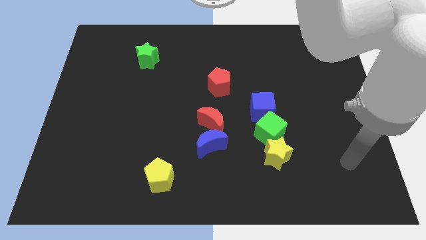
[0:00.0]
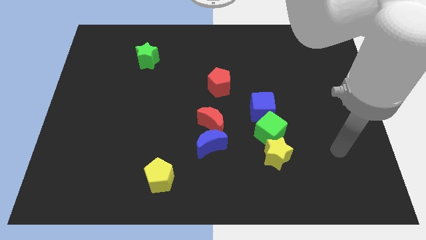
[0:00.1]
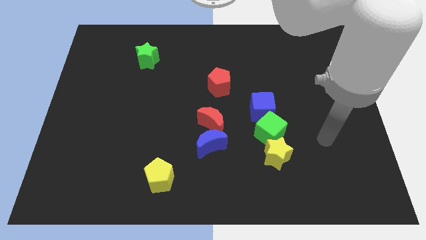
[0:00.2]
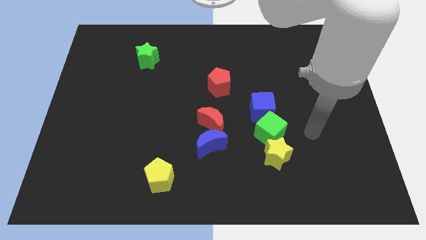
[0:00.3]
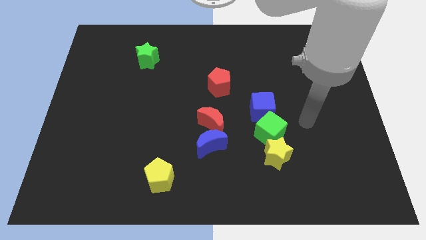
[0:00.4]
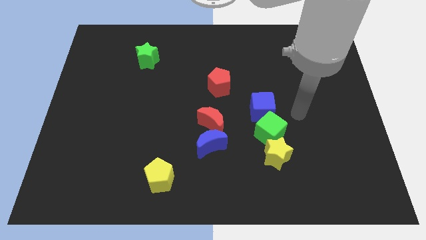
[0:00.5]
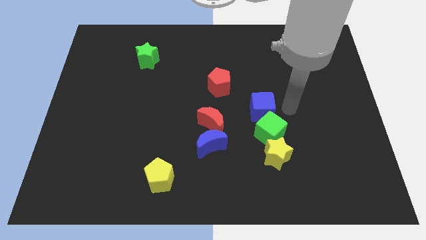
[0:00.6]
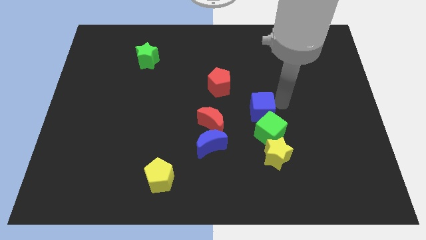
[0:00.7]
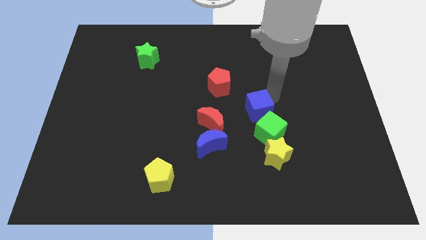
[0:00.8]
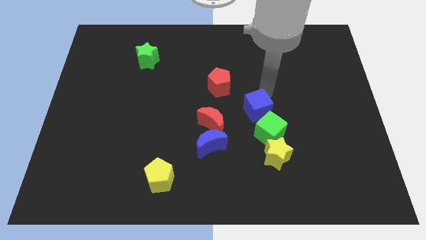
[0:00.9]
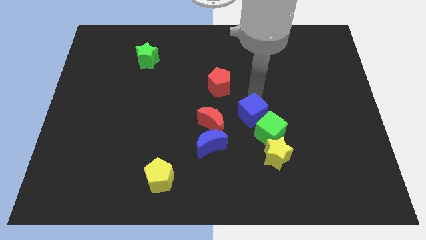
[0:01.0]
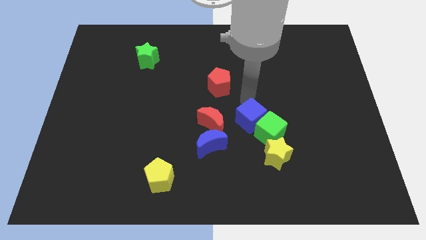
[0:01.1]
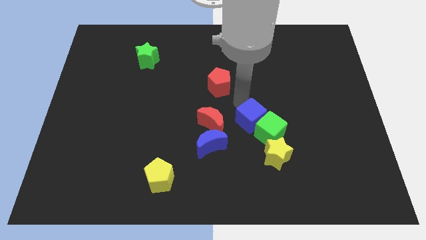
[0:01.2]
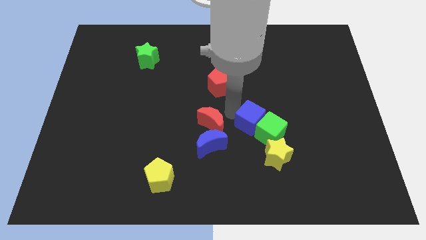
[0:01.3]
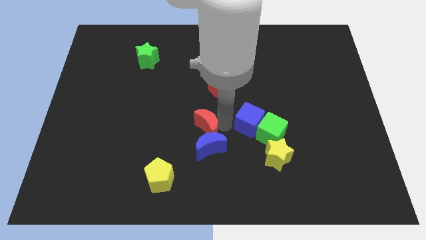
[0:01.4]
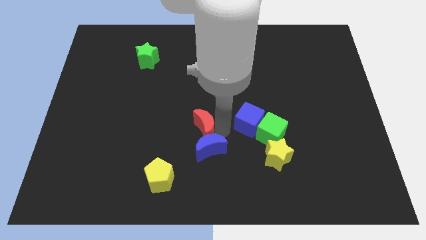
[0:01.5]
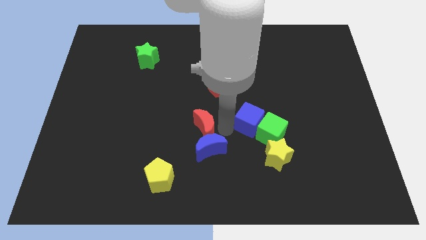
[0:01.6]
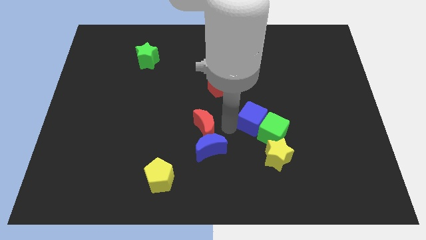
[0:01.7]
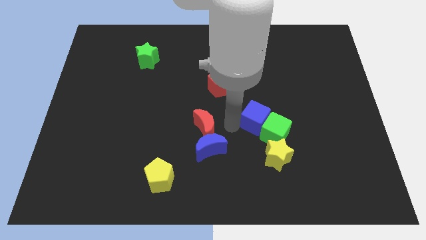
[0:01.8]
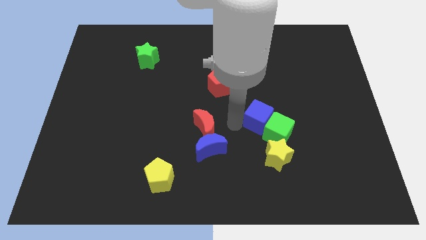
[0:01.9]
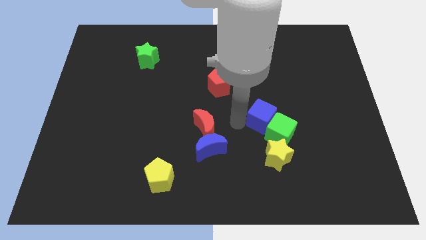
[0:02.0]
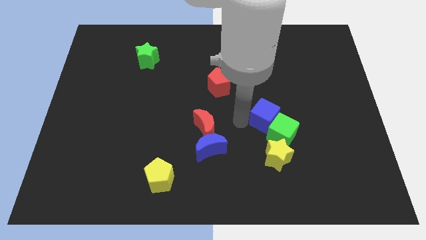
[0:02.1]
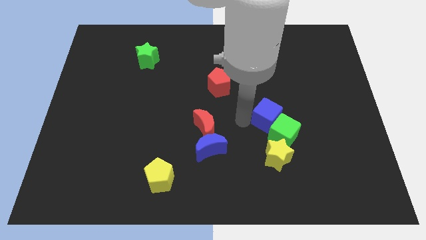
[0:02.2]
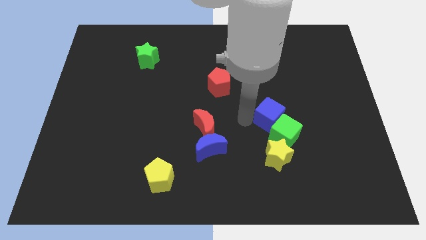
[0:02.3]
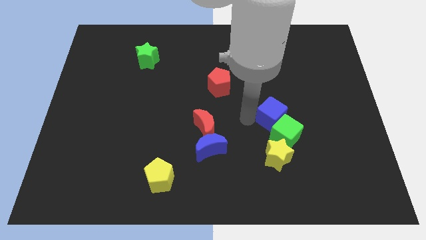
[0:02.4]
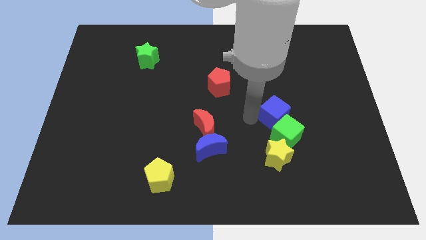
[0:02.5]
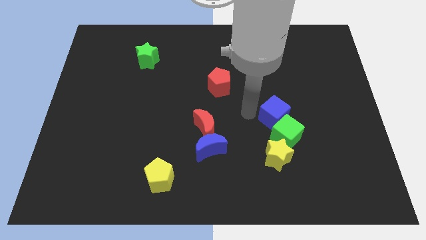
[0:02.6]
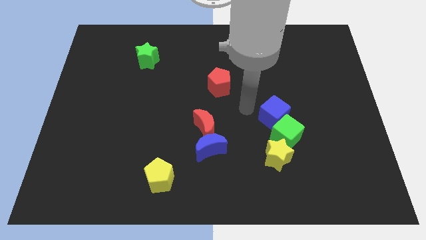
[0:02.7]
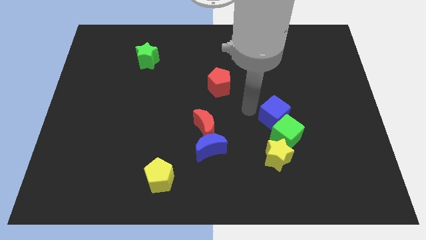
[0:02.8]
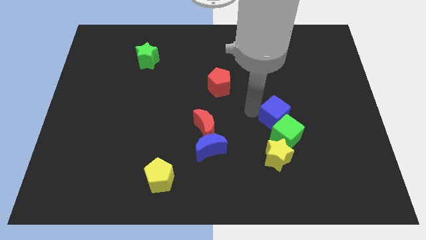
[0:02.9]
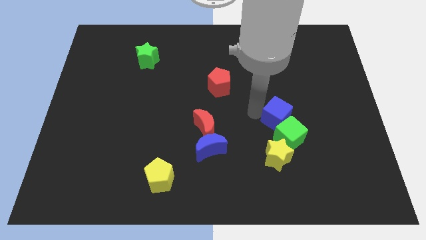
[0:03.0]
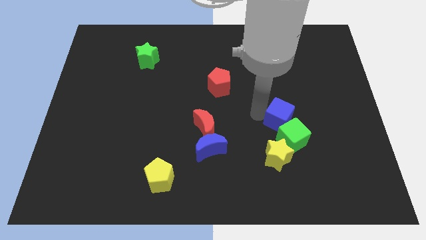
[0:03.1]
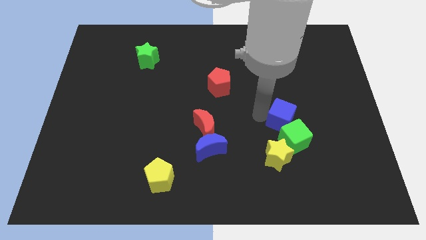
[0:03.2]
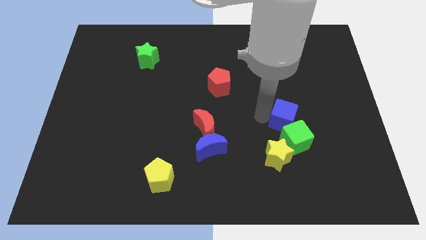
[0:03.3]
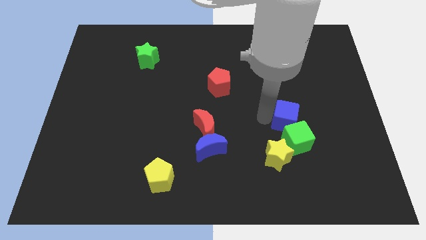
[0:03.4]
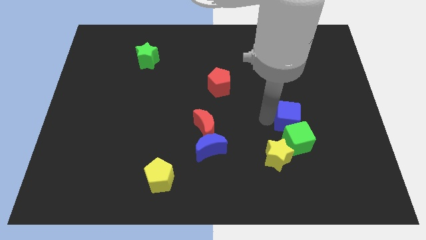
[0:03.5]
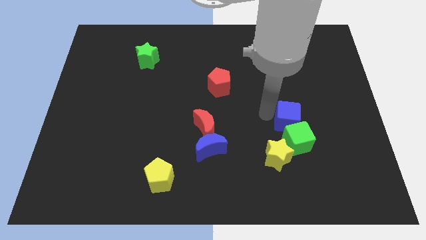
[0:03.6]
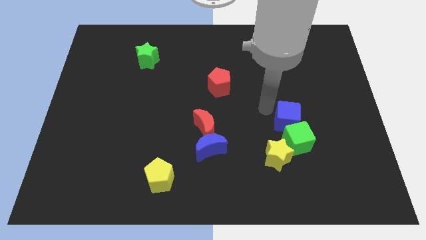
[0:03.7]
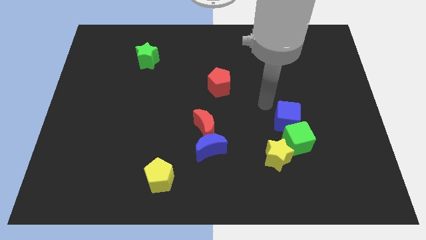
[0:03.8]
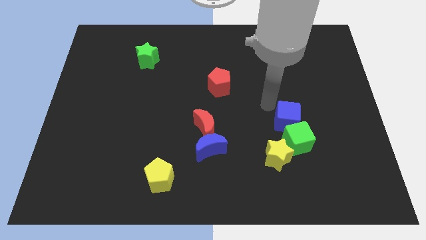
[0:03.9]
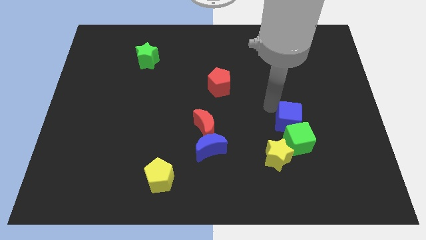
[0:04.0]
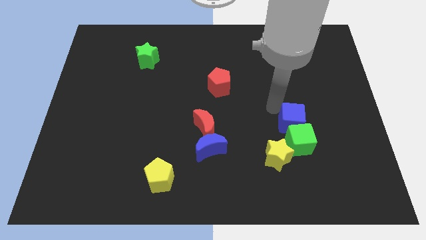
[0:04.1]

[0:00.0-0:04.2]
push the blue cube diagonally down and to the right somewhat

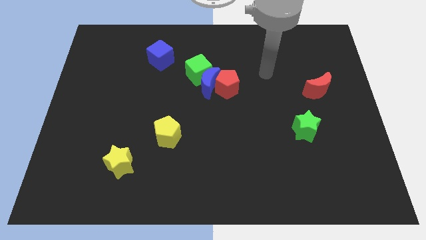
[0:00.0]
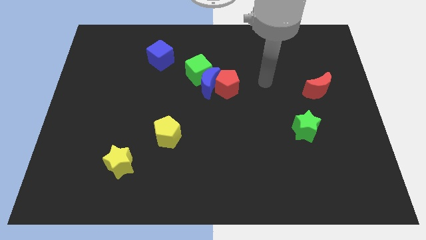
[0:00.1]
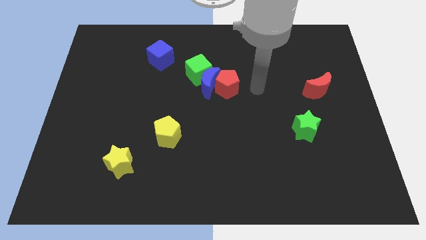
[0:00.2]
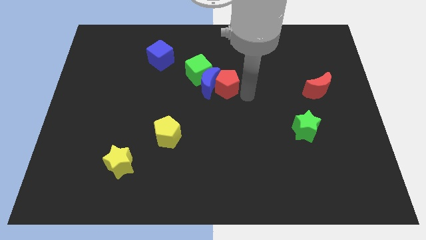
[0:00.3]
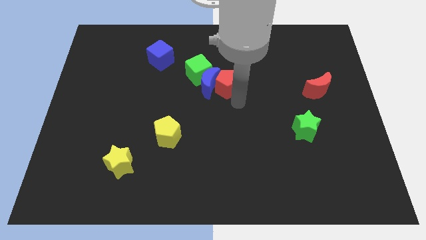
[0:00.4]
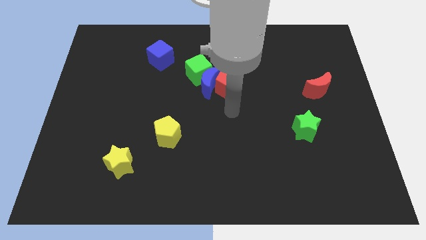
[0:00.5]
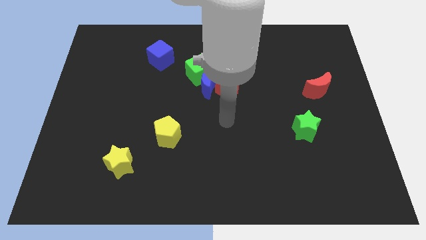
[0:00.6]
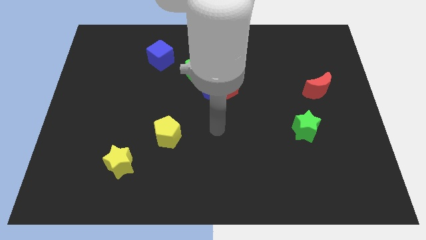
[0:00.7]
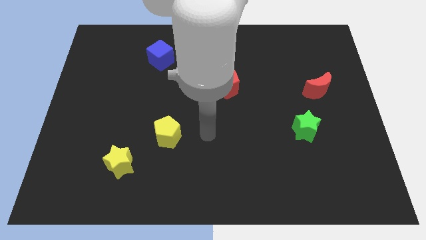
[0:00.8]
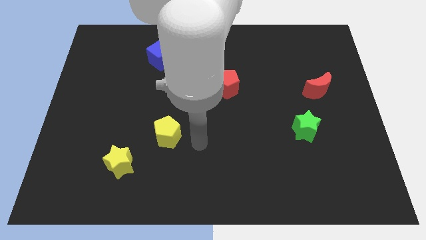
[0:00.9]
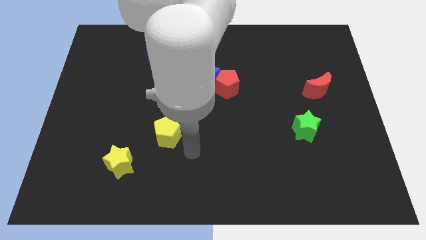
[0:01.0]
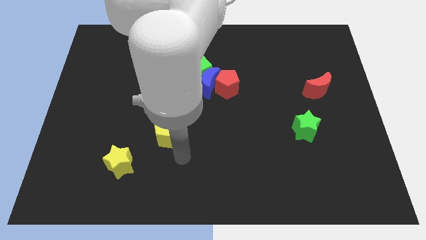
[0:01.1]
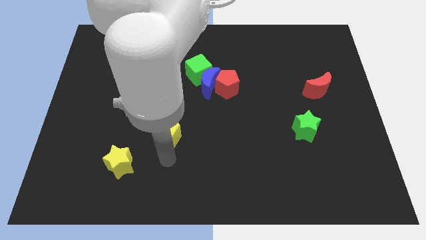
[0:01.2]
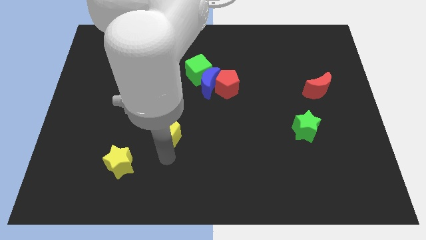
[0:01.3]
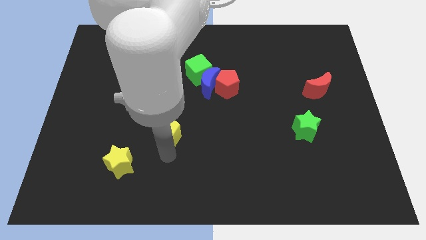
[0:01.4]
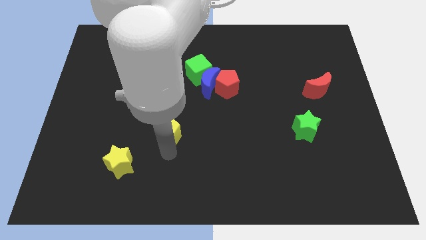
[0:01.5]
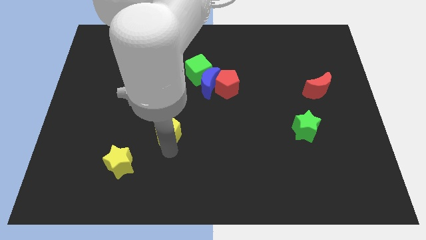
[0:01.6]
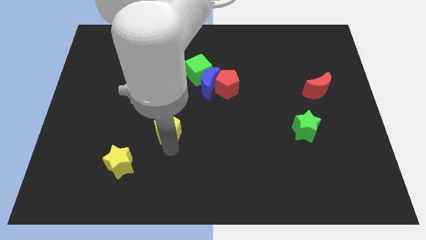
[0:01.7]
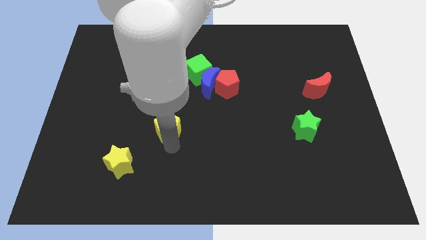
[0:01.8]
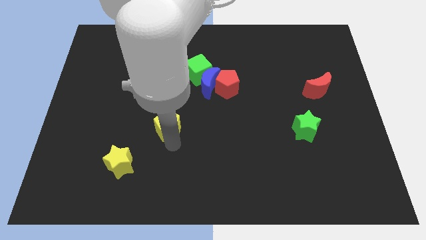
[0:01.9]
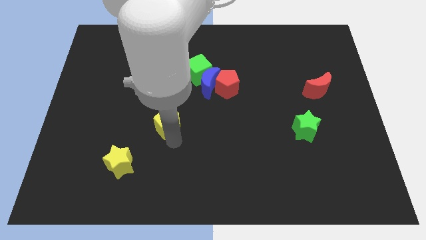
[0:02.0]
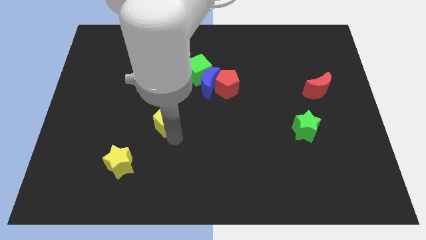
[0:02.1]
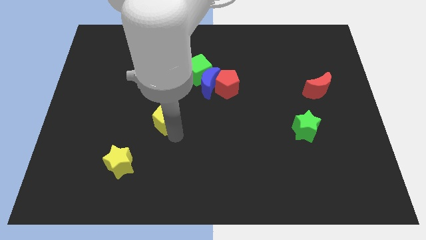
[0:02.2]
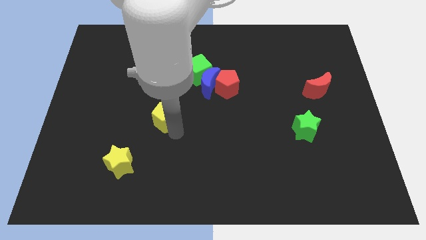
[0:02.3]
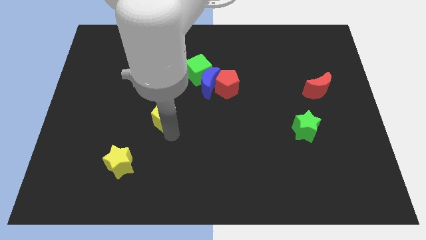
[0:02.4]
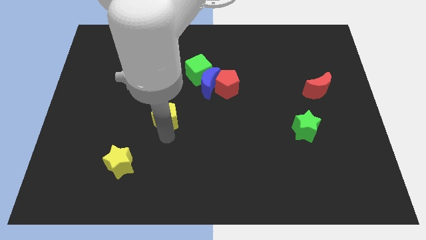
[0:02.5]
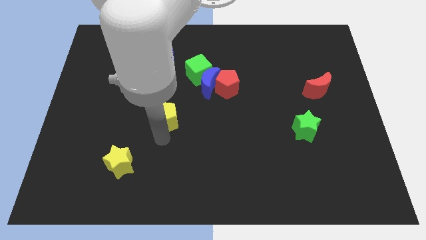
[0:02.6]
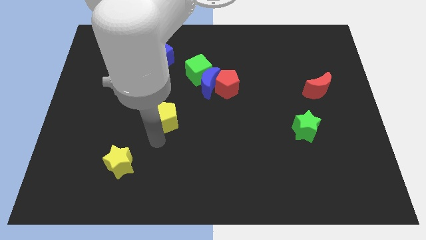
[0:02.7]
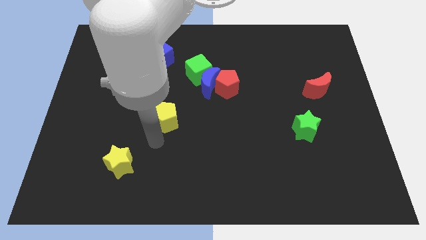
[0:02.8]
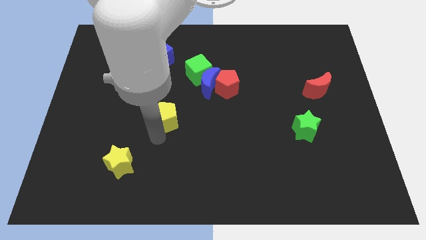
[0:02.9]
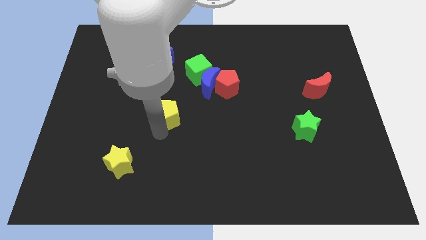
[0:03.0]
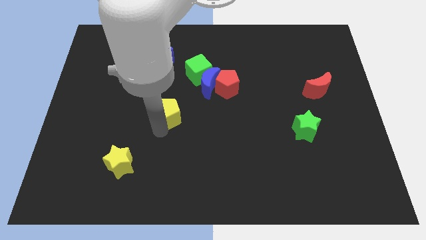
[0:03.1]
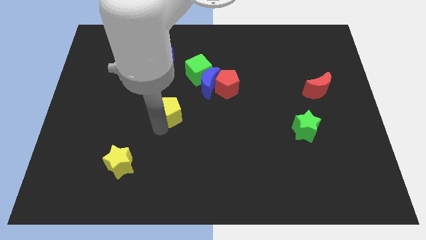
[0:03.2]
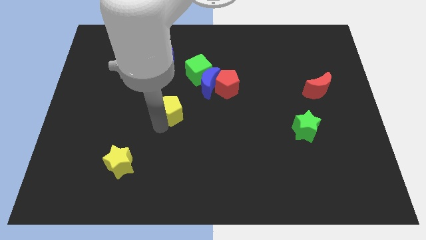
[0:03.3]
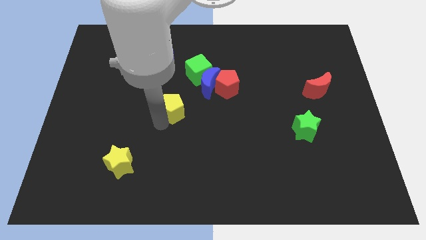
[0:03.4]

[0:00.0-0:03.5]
slide the yellow pentagon up somewhat

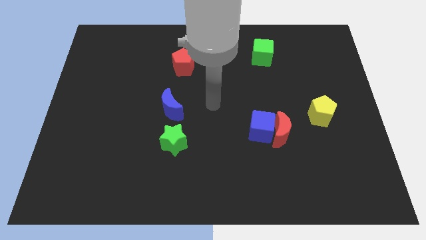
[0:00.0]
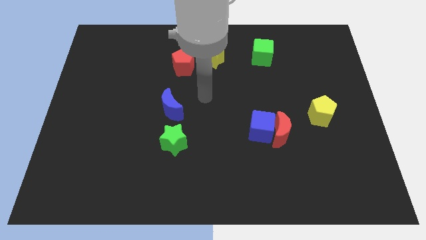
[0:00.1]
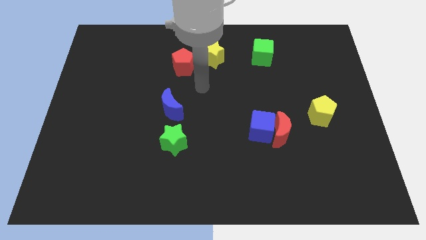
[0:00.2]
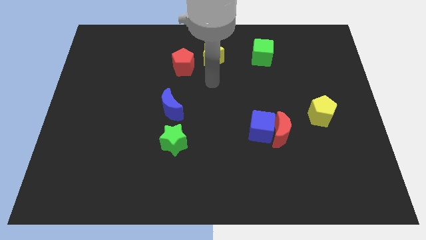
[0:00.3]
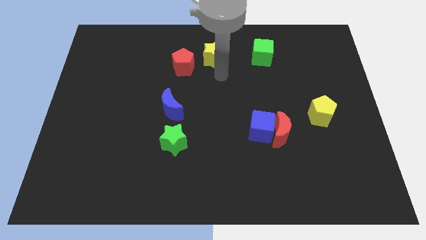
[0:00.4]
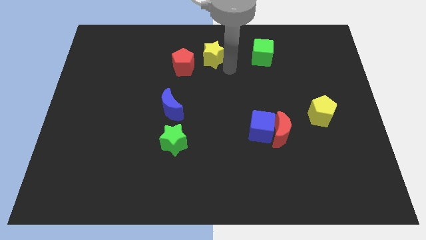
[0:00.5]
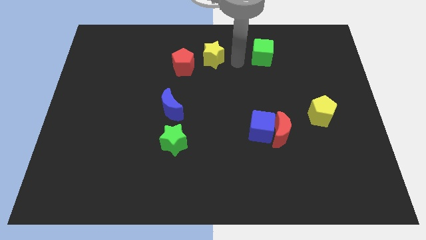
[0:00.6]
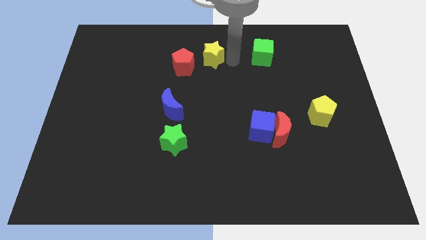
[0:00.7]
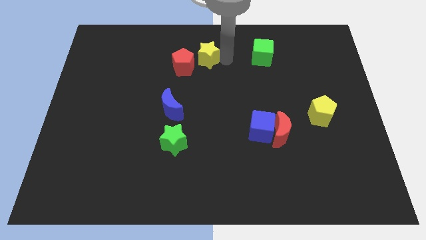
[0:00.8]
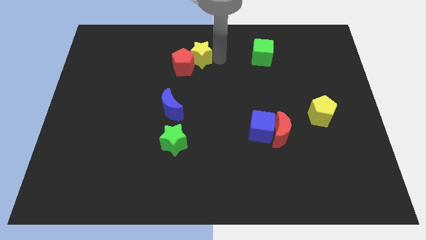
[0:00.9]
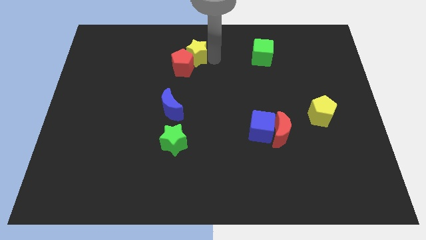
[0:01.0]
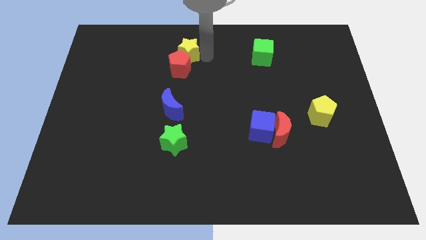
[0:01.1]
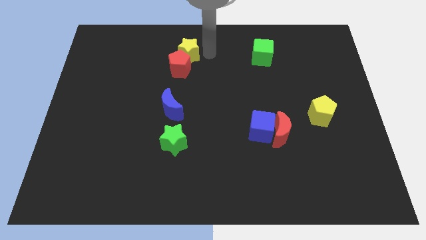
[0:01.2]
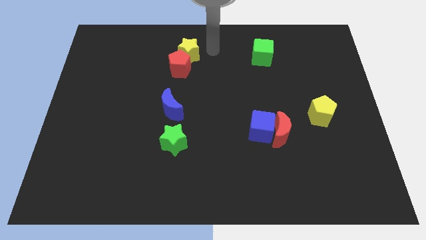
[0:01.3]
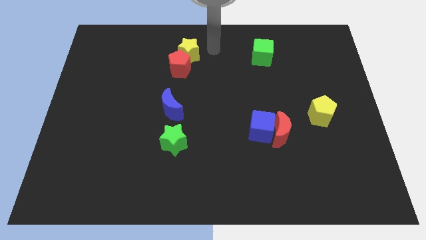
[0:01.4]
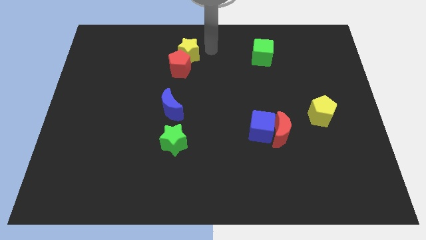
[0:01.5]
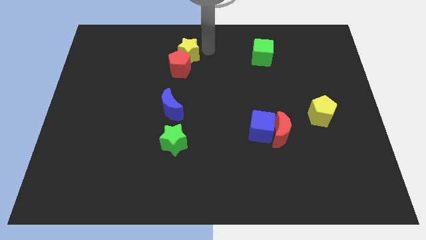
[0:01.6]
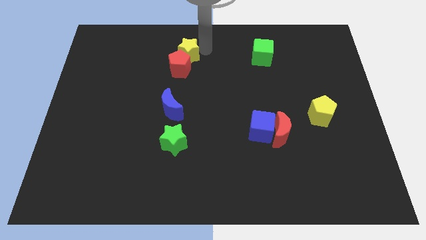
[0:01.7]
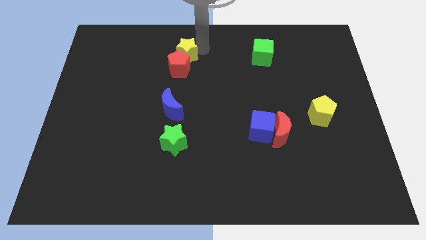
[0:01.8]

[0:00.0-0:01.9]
slightly move the yellow star left
